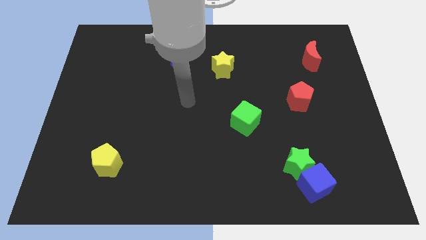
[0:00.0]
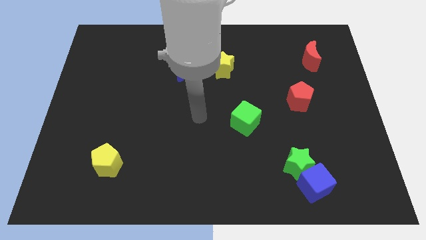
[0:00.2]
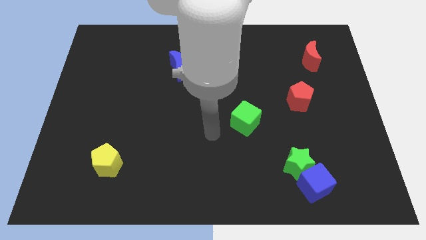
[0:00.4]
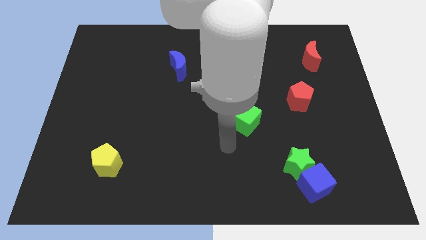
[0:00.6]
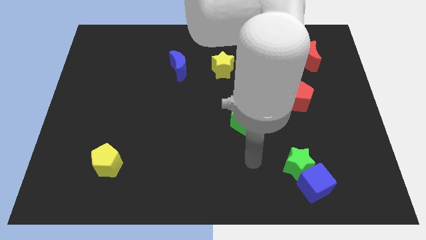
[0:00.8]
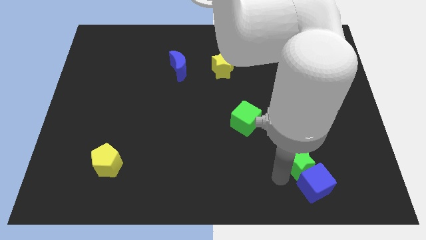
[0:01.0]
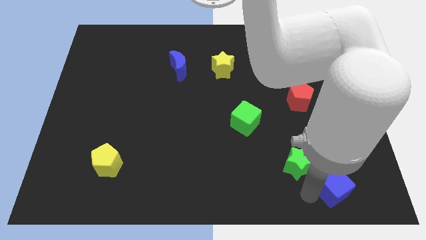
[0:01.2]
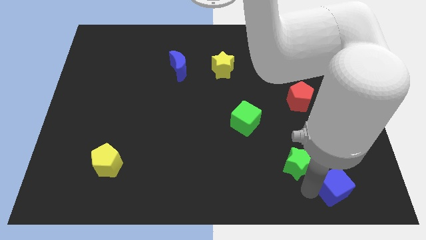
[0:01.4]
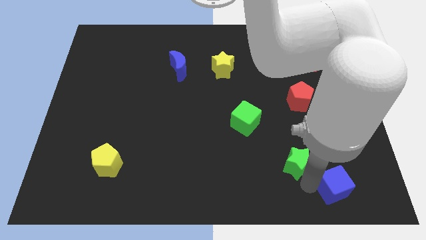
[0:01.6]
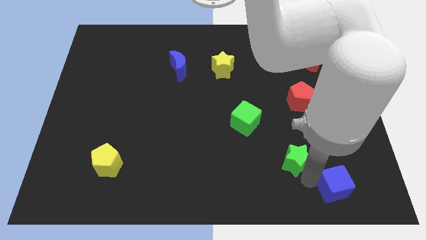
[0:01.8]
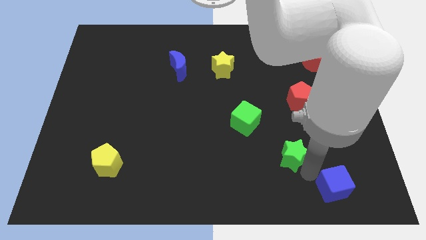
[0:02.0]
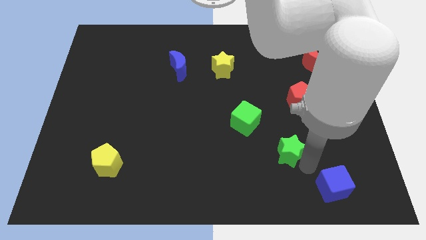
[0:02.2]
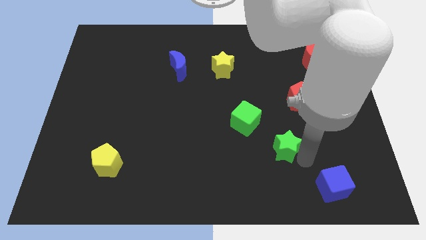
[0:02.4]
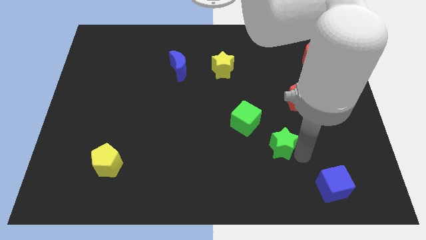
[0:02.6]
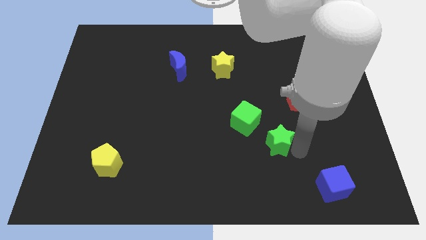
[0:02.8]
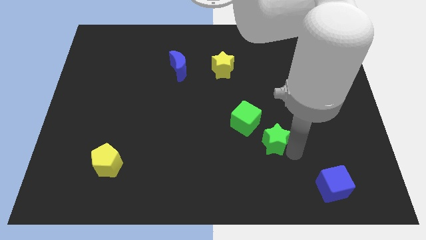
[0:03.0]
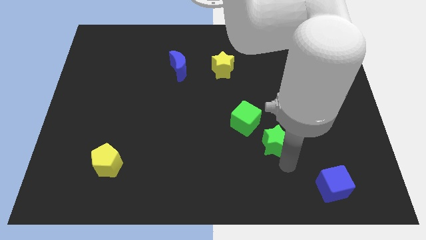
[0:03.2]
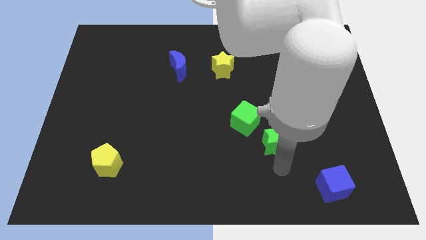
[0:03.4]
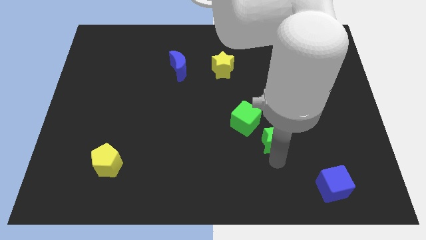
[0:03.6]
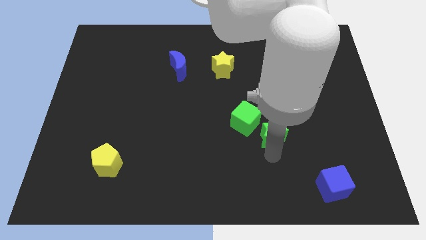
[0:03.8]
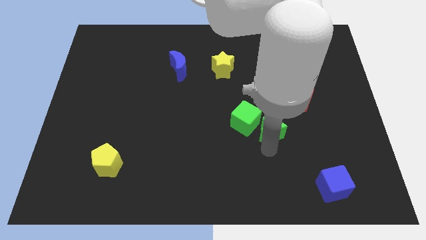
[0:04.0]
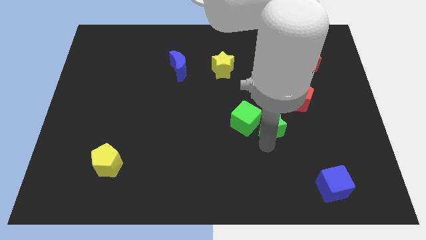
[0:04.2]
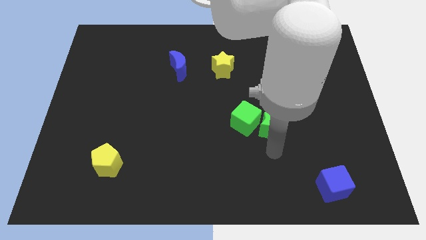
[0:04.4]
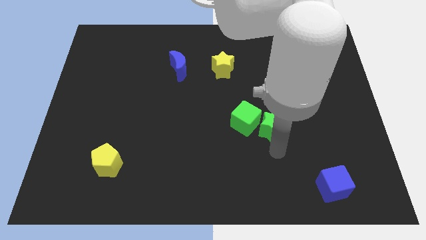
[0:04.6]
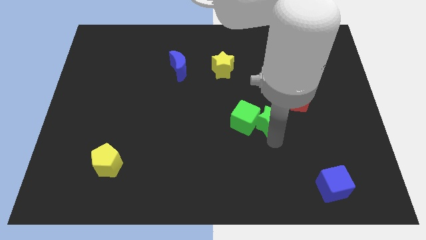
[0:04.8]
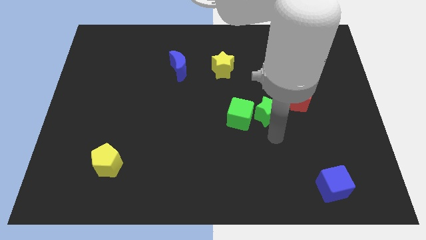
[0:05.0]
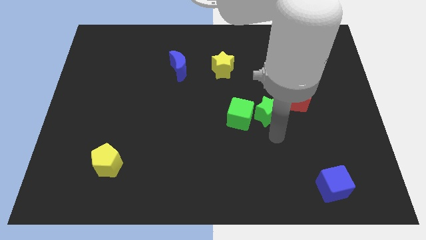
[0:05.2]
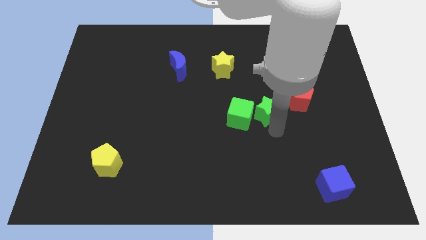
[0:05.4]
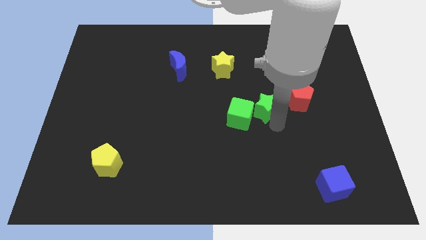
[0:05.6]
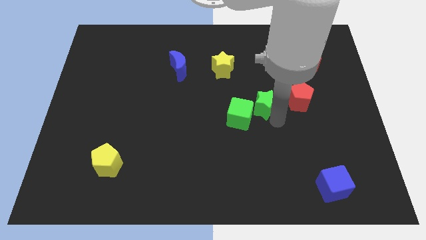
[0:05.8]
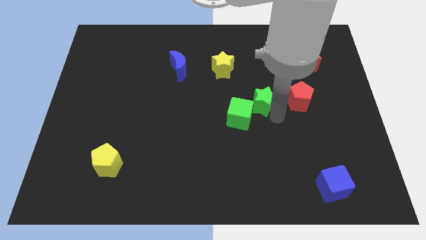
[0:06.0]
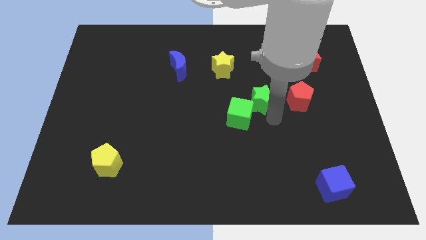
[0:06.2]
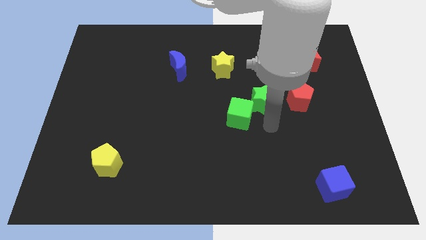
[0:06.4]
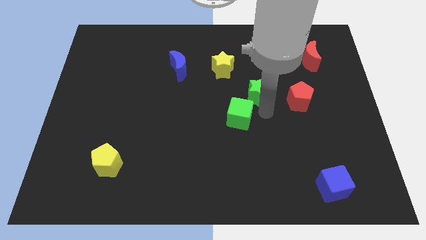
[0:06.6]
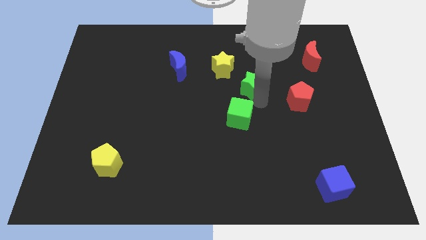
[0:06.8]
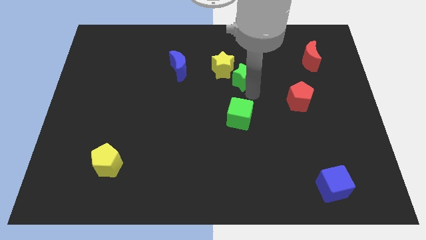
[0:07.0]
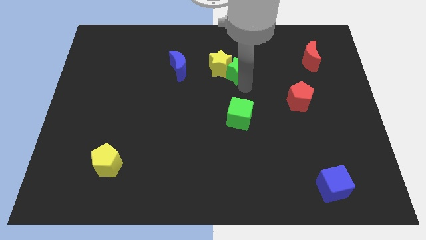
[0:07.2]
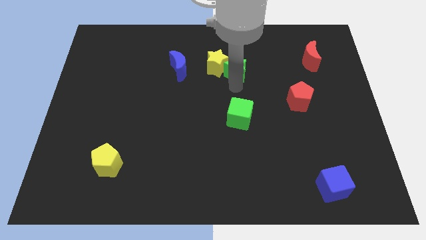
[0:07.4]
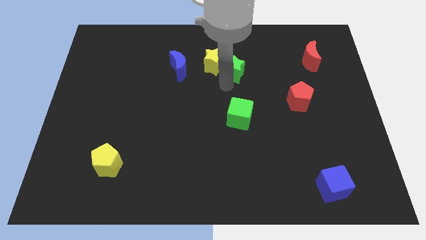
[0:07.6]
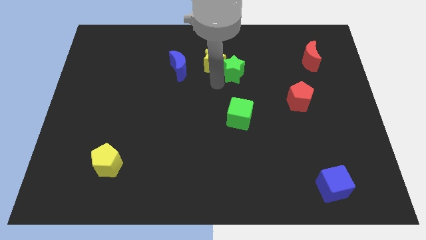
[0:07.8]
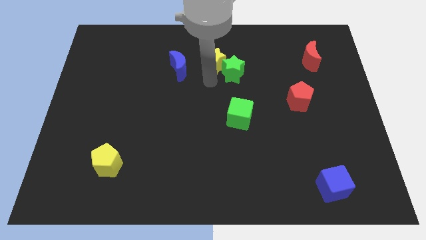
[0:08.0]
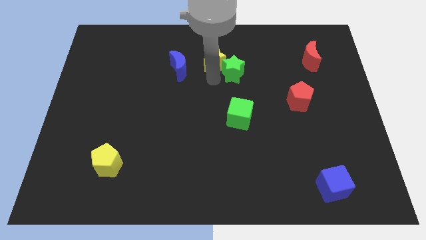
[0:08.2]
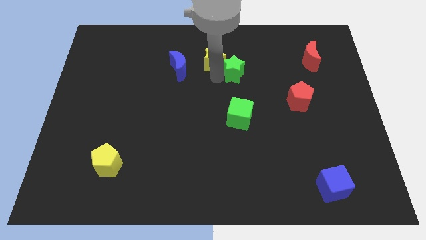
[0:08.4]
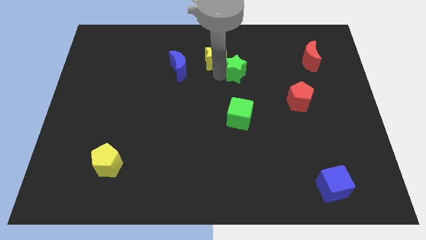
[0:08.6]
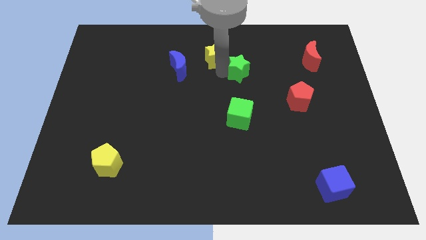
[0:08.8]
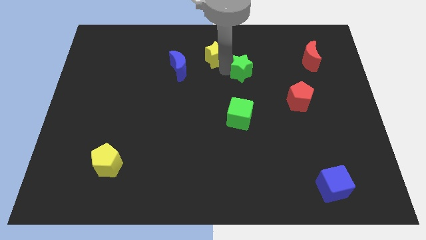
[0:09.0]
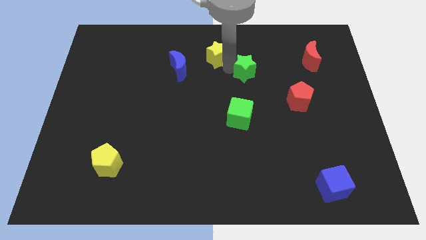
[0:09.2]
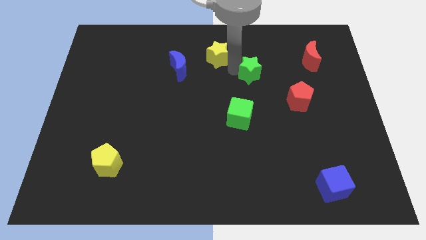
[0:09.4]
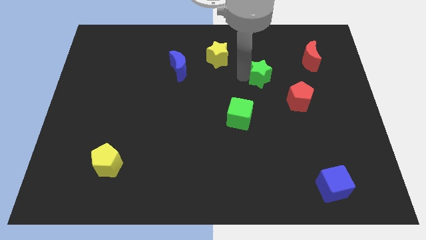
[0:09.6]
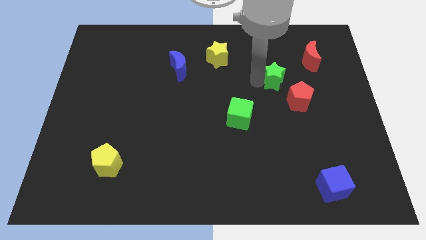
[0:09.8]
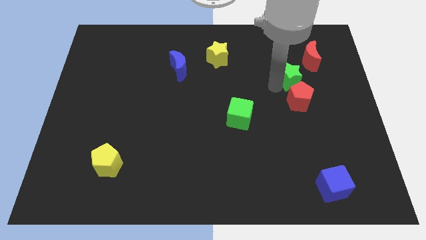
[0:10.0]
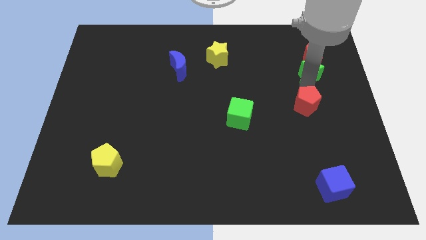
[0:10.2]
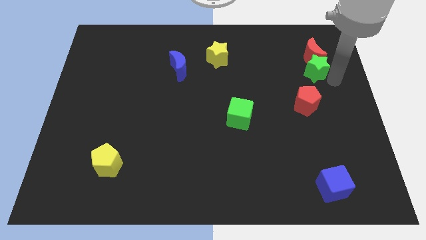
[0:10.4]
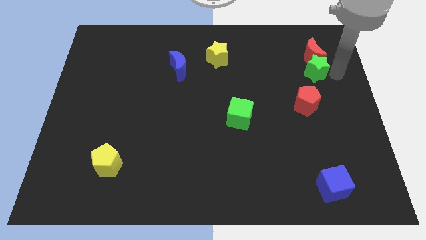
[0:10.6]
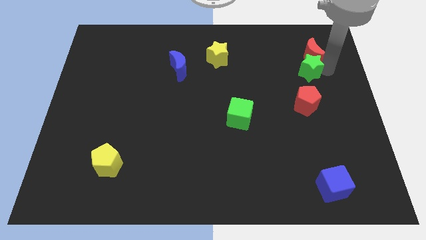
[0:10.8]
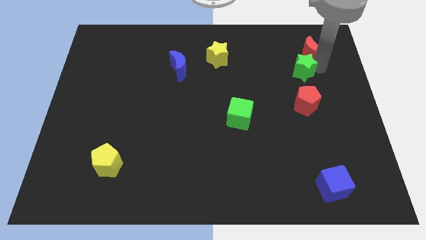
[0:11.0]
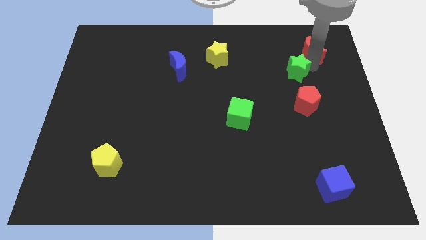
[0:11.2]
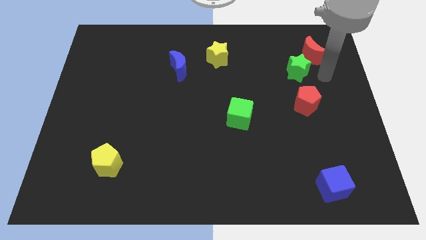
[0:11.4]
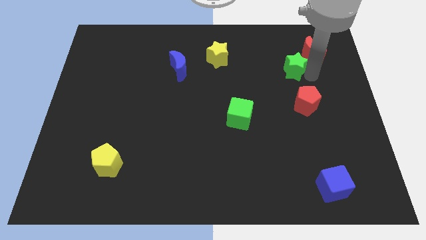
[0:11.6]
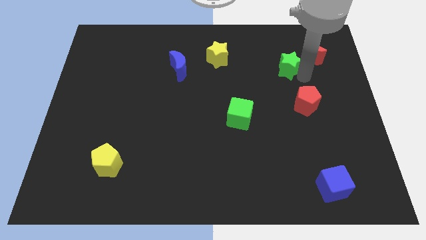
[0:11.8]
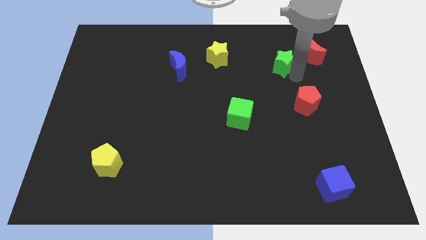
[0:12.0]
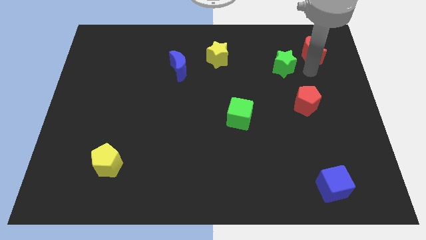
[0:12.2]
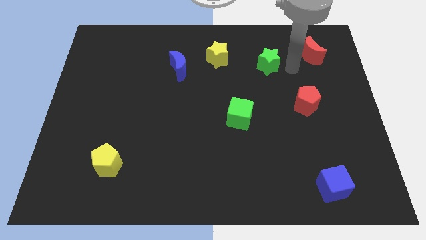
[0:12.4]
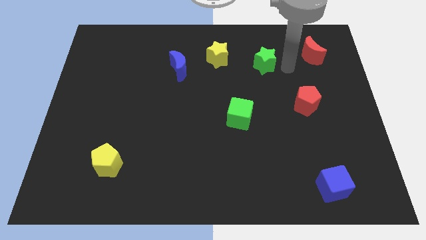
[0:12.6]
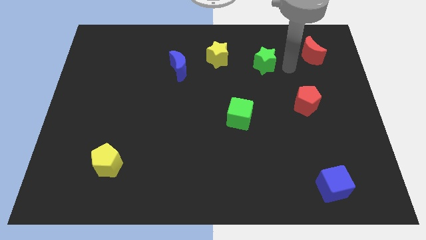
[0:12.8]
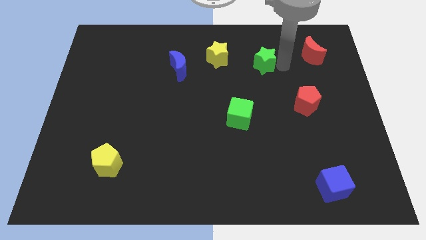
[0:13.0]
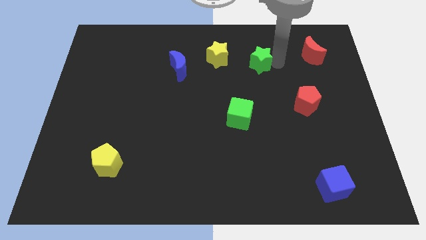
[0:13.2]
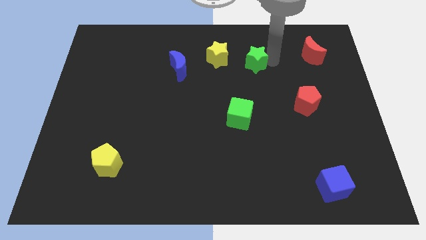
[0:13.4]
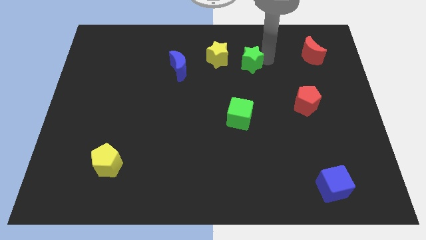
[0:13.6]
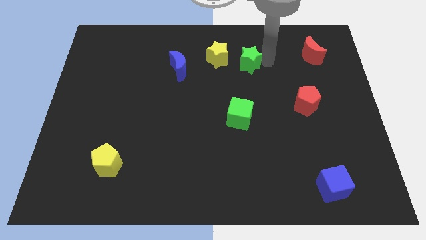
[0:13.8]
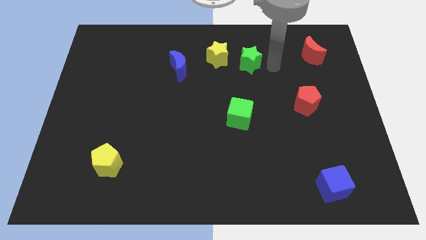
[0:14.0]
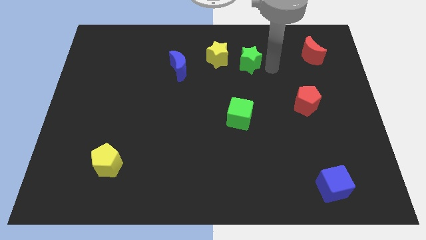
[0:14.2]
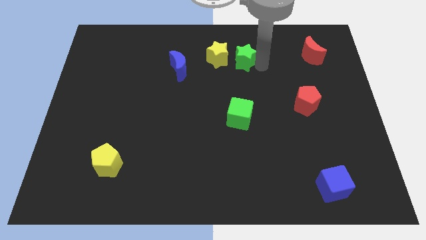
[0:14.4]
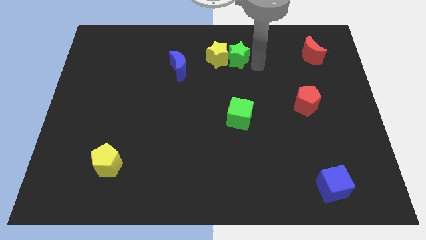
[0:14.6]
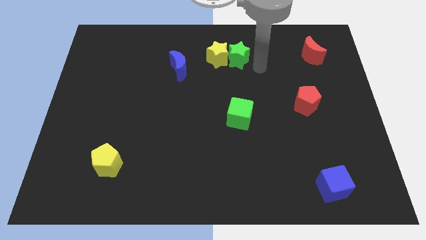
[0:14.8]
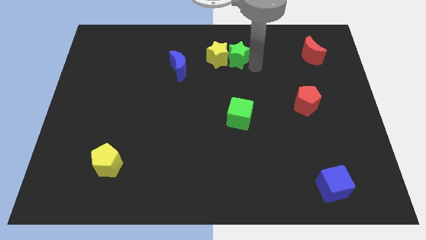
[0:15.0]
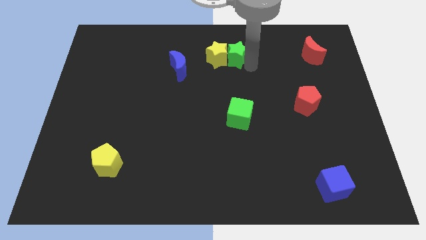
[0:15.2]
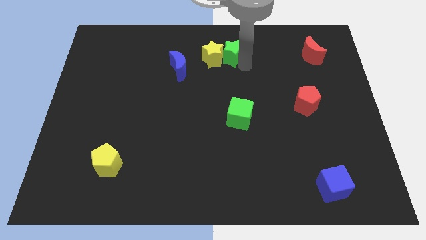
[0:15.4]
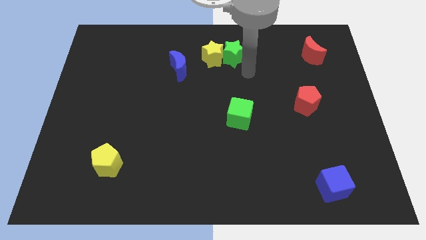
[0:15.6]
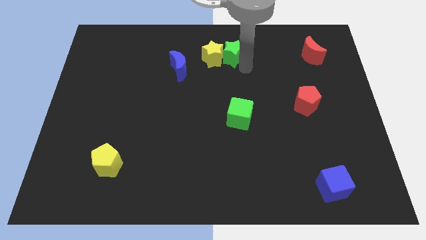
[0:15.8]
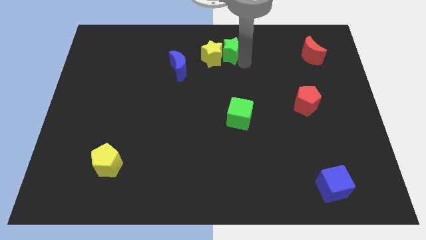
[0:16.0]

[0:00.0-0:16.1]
put the green star to the top
